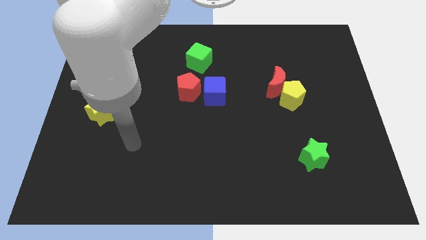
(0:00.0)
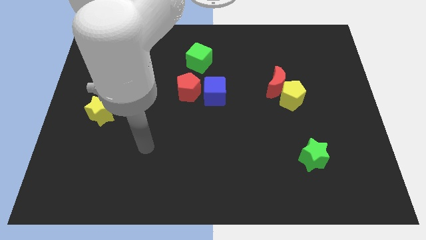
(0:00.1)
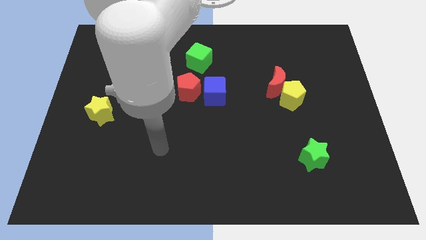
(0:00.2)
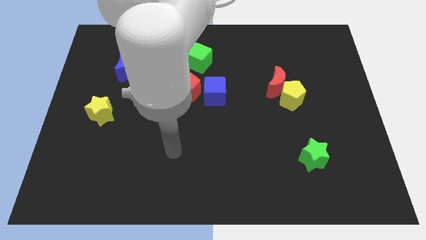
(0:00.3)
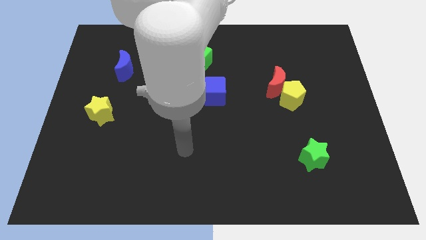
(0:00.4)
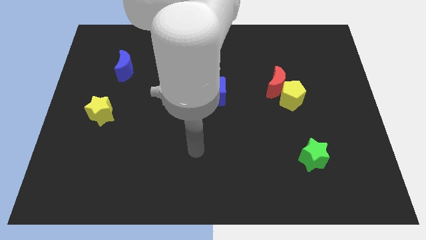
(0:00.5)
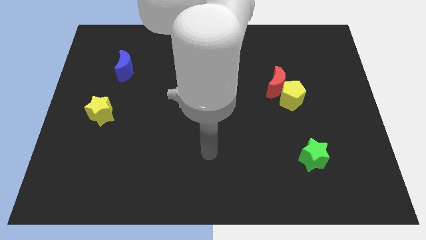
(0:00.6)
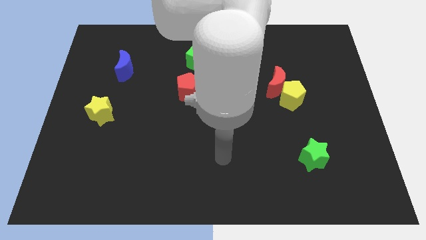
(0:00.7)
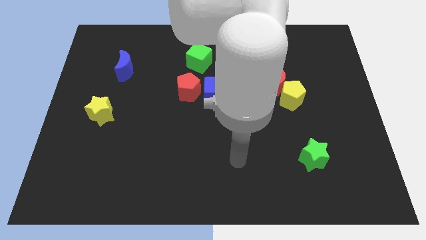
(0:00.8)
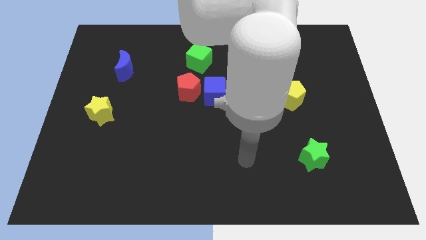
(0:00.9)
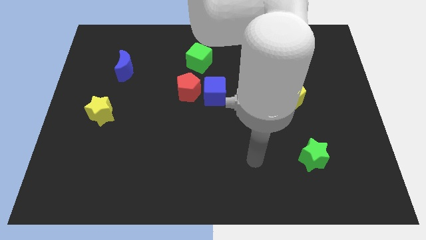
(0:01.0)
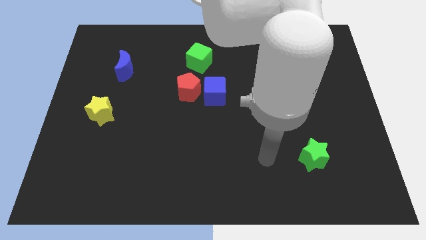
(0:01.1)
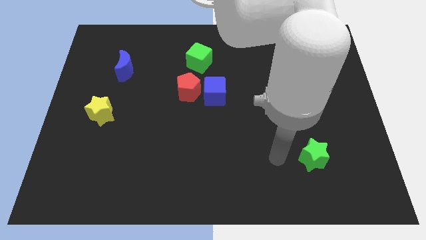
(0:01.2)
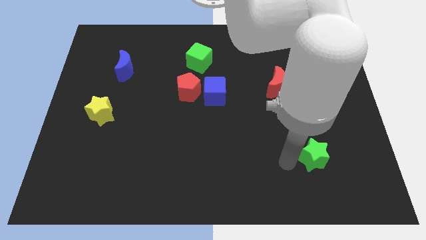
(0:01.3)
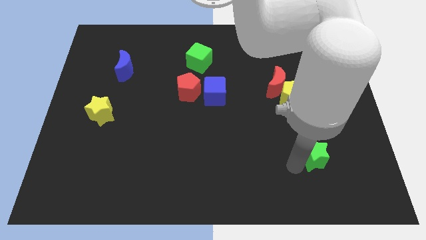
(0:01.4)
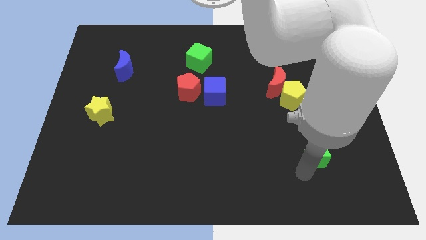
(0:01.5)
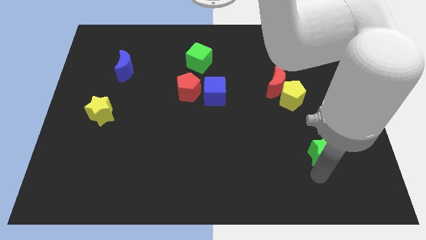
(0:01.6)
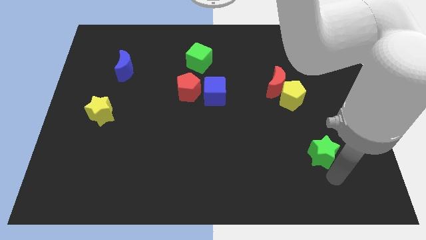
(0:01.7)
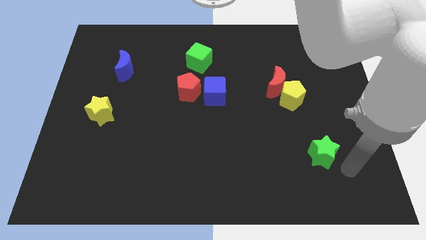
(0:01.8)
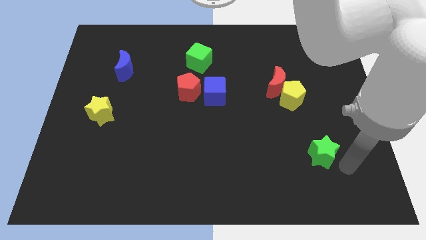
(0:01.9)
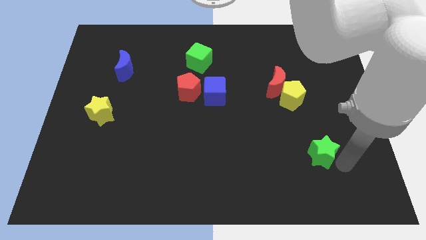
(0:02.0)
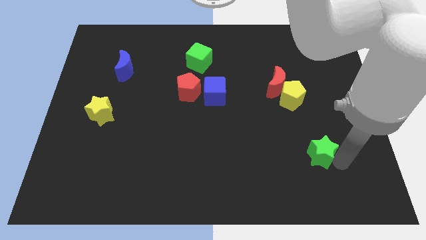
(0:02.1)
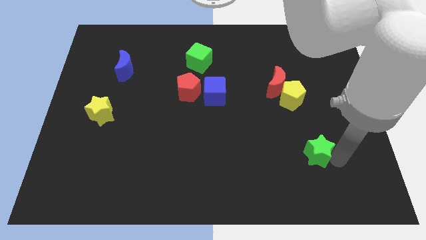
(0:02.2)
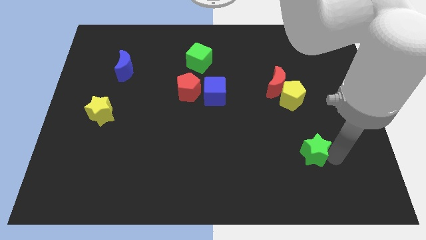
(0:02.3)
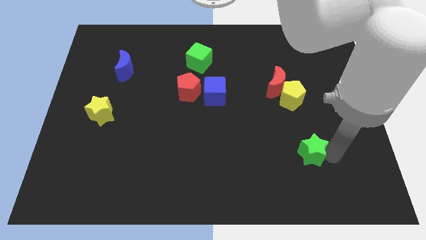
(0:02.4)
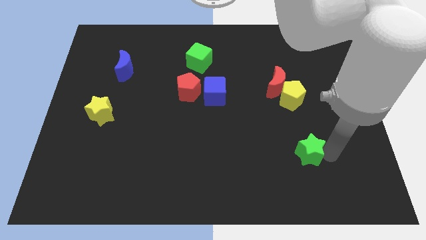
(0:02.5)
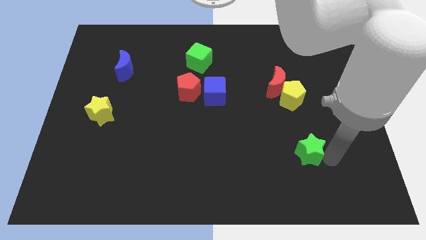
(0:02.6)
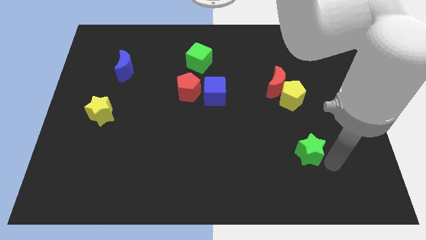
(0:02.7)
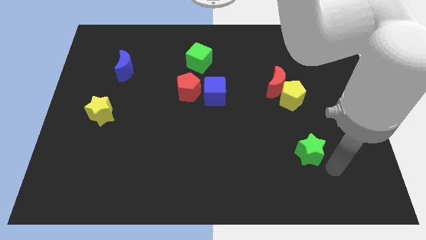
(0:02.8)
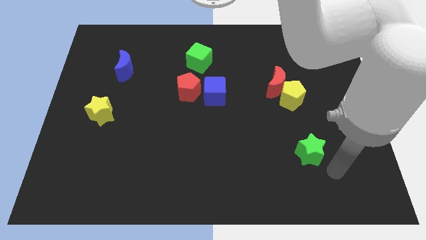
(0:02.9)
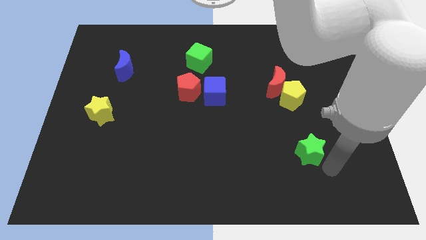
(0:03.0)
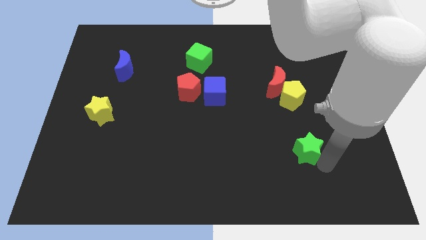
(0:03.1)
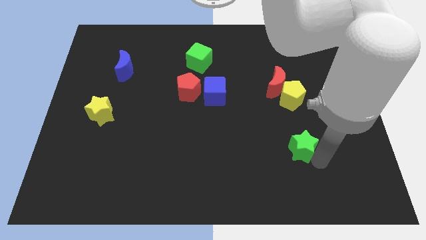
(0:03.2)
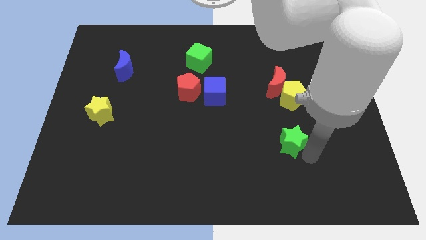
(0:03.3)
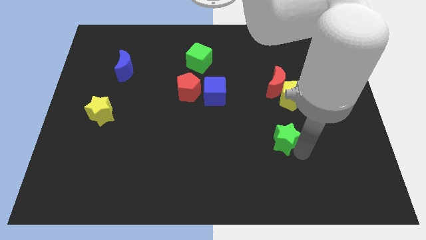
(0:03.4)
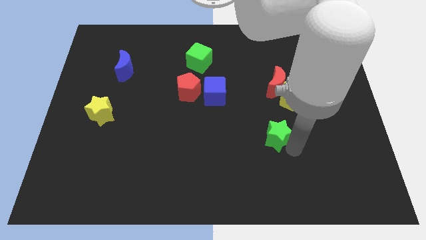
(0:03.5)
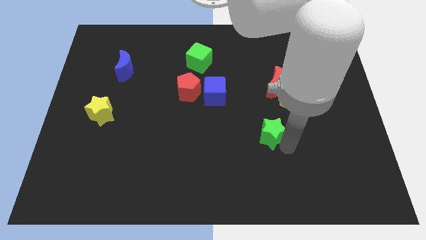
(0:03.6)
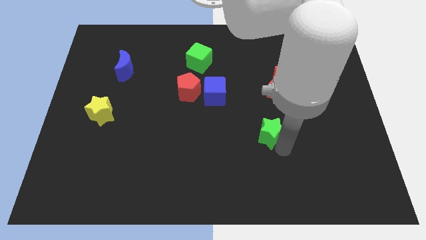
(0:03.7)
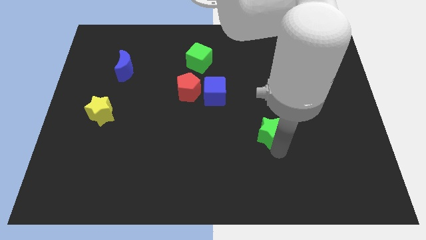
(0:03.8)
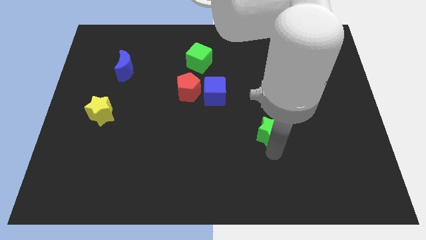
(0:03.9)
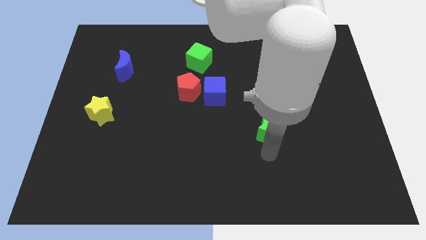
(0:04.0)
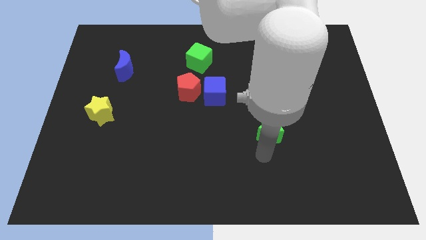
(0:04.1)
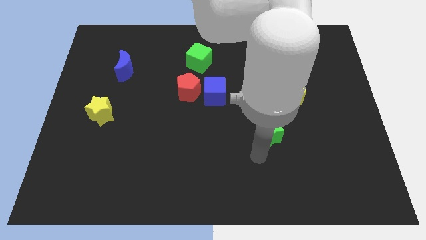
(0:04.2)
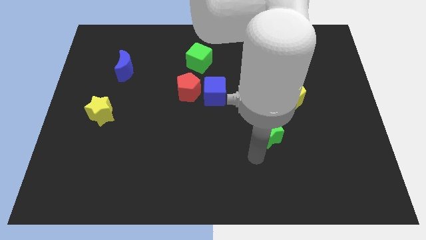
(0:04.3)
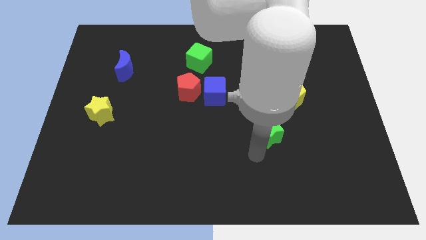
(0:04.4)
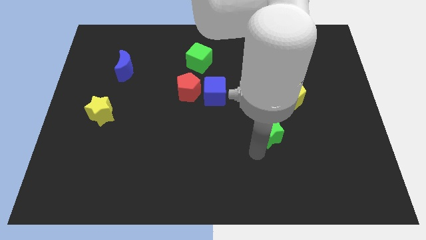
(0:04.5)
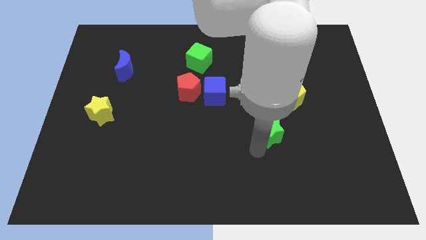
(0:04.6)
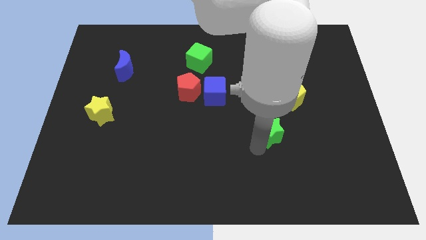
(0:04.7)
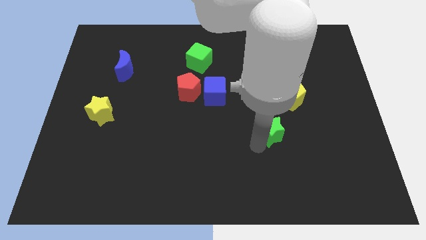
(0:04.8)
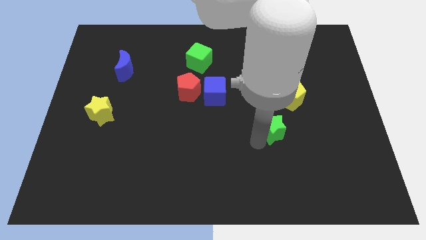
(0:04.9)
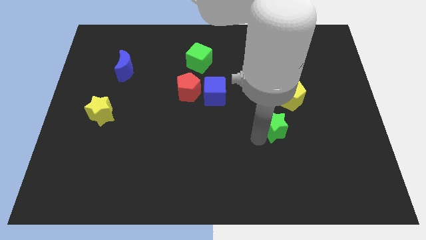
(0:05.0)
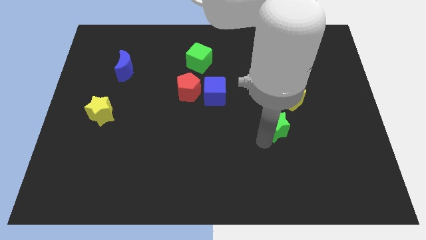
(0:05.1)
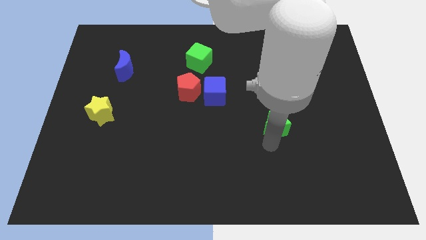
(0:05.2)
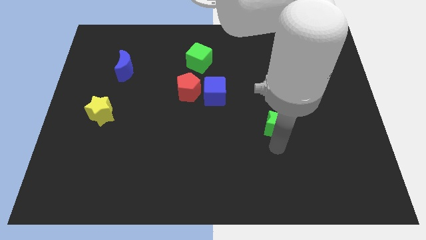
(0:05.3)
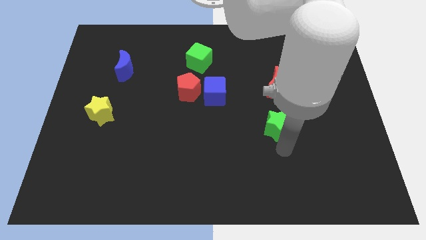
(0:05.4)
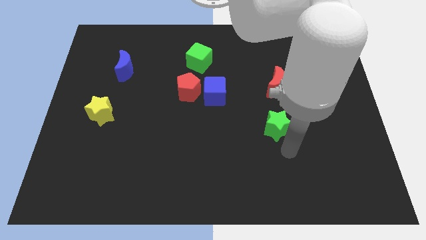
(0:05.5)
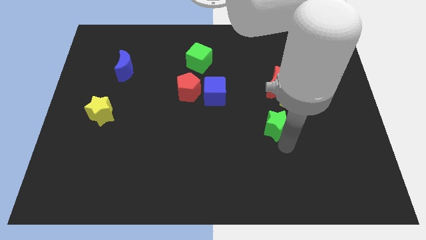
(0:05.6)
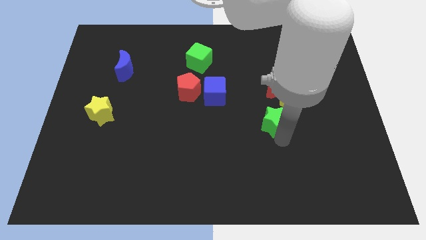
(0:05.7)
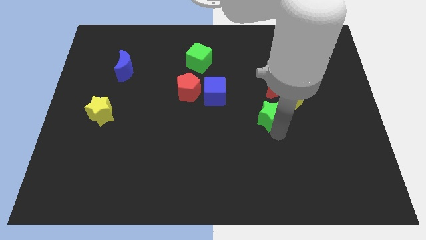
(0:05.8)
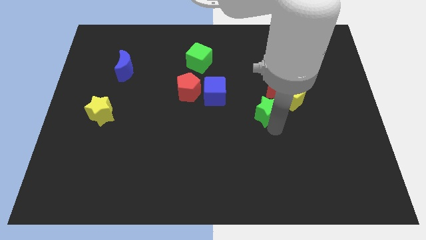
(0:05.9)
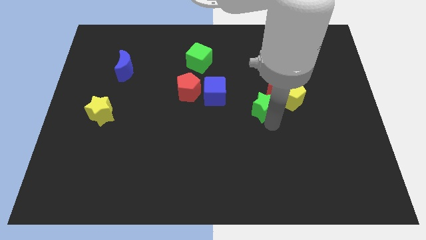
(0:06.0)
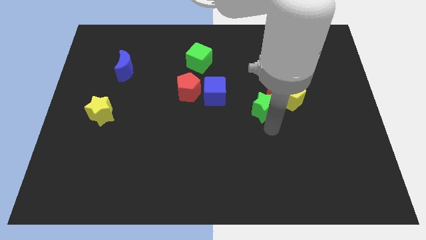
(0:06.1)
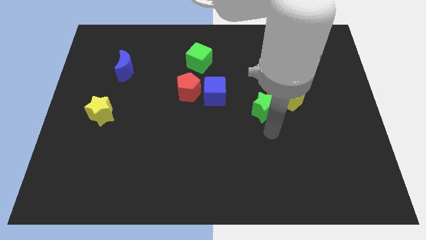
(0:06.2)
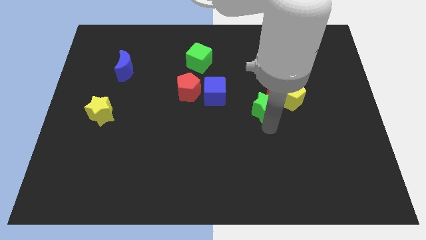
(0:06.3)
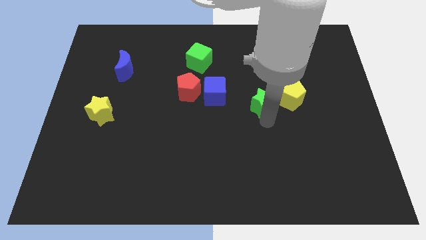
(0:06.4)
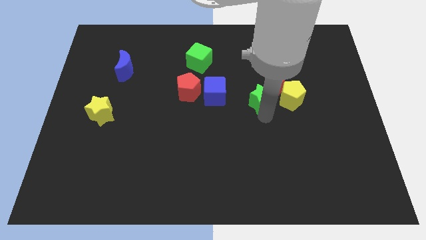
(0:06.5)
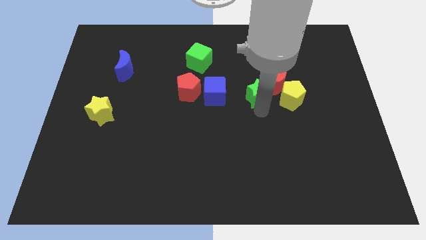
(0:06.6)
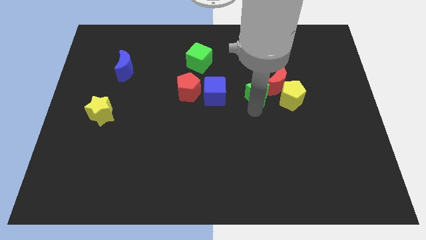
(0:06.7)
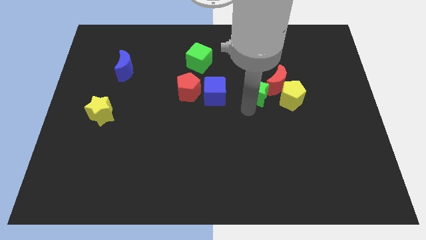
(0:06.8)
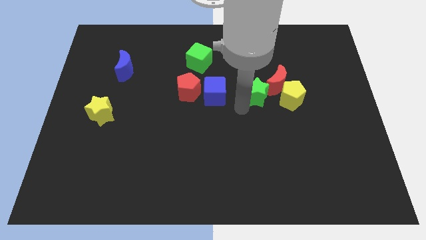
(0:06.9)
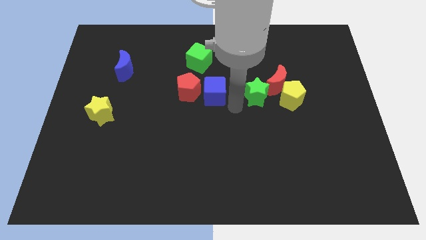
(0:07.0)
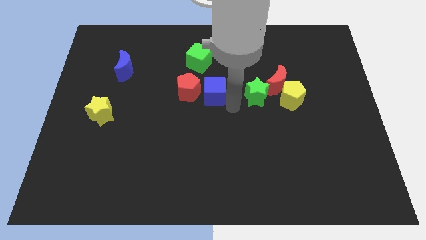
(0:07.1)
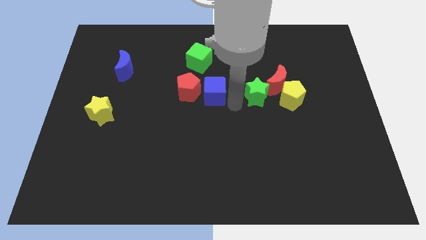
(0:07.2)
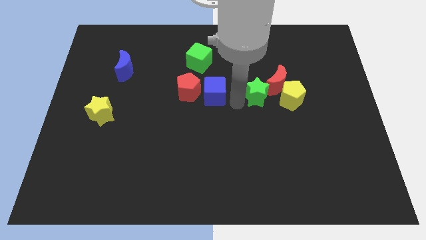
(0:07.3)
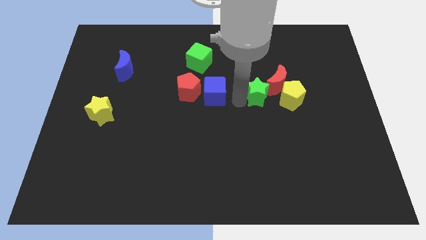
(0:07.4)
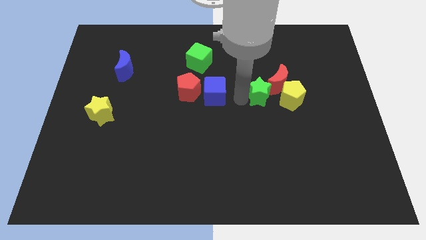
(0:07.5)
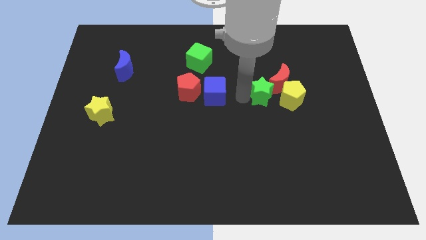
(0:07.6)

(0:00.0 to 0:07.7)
move the green star to the red moon

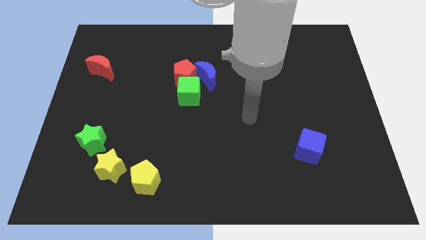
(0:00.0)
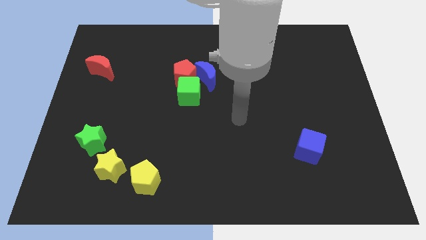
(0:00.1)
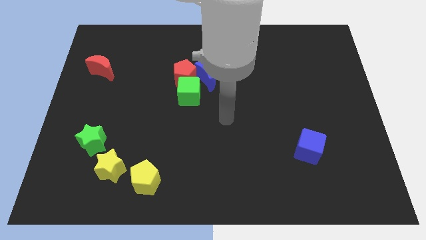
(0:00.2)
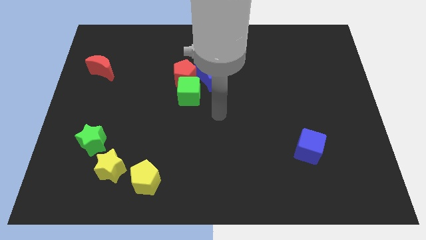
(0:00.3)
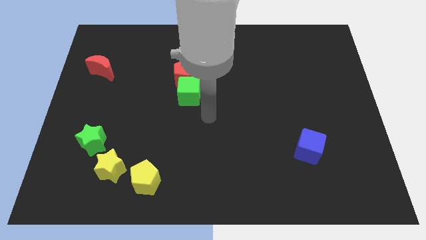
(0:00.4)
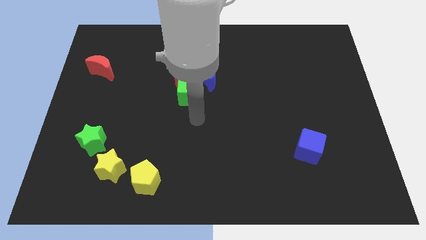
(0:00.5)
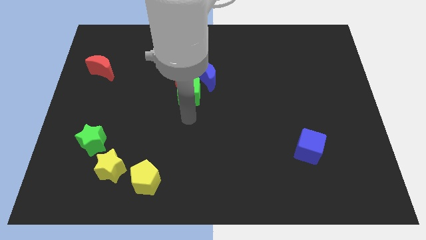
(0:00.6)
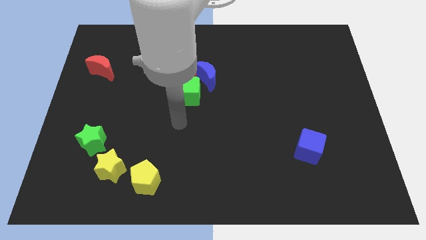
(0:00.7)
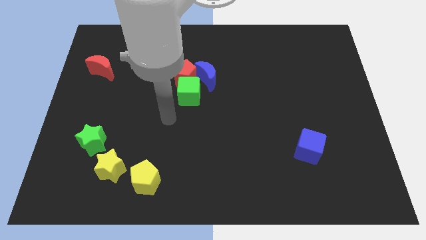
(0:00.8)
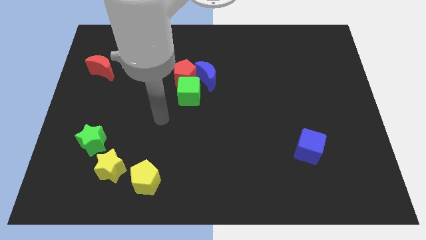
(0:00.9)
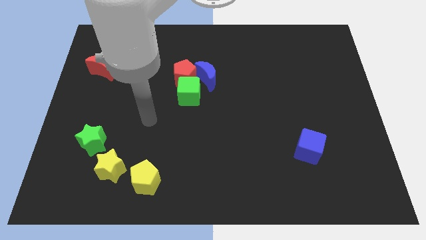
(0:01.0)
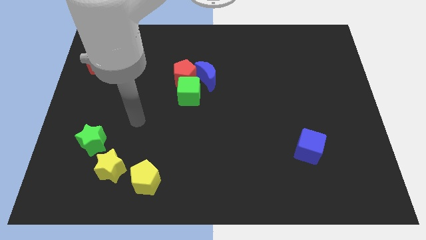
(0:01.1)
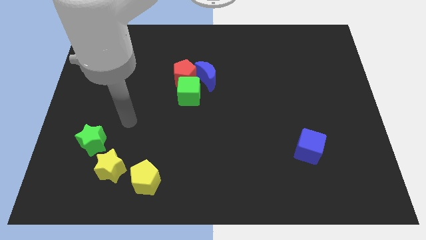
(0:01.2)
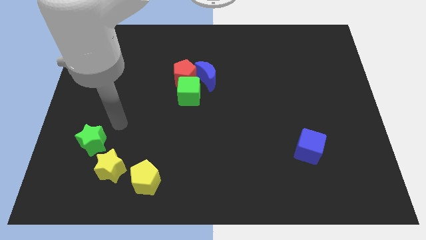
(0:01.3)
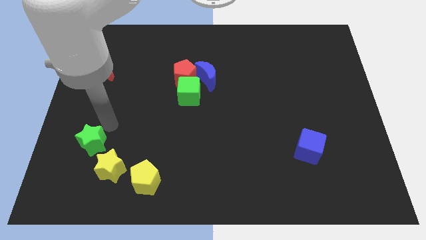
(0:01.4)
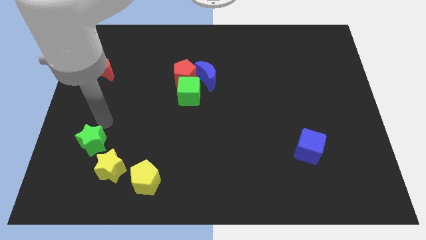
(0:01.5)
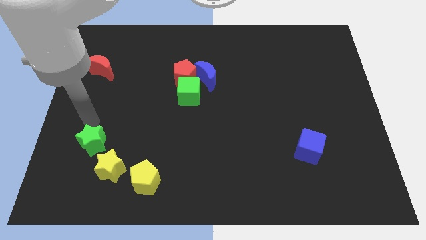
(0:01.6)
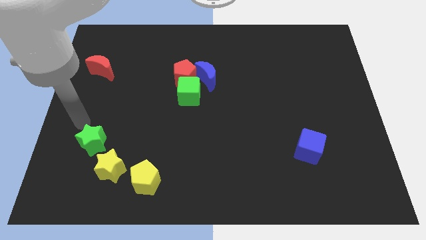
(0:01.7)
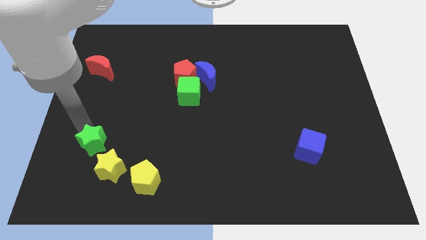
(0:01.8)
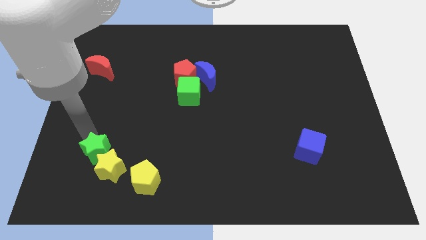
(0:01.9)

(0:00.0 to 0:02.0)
move the green star towards the yellow star
